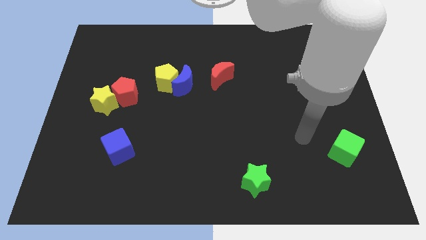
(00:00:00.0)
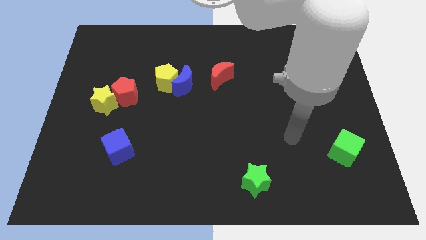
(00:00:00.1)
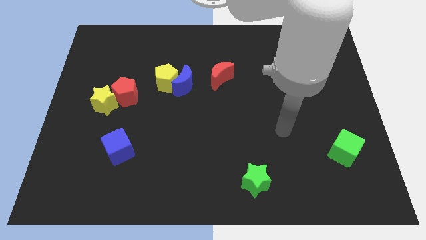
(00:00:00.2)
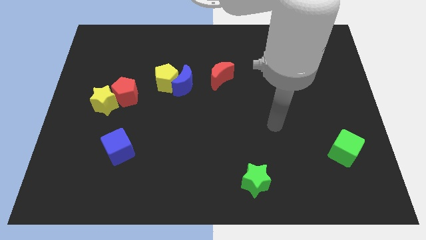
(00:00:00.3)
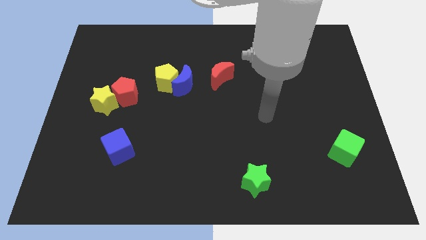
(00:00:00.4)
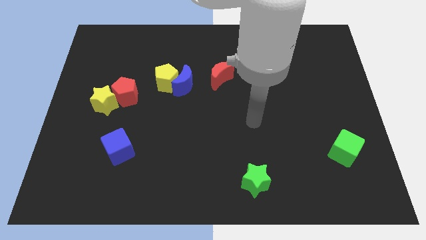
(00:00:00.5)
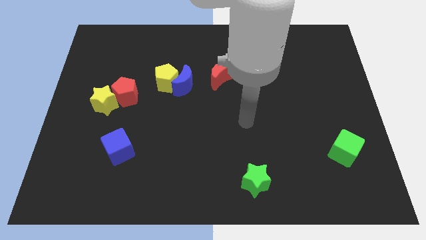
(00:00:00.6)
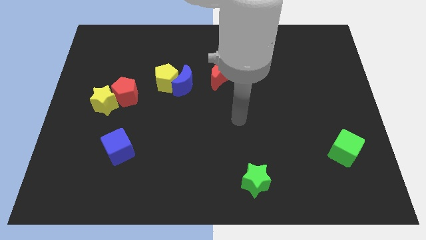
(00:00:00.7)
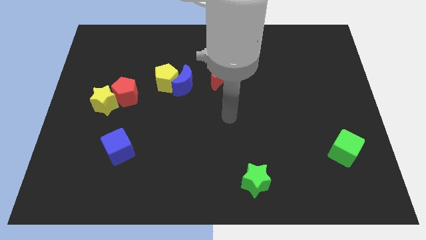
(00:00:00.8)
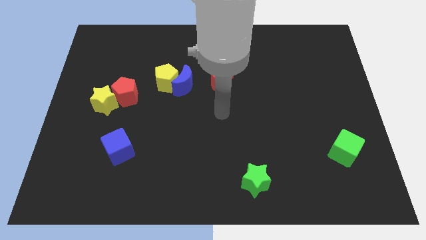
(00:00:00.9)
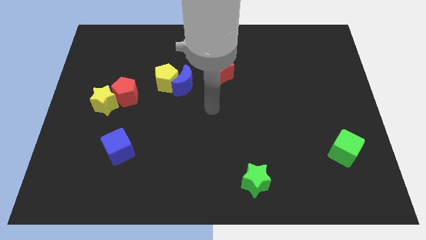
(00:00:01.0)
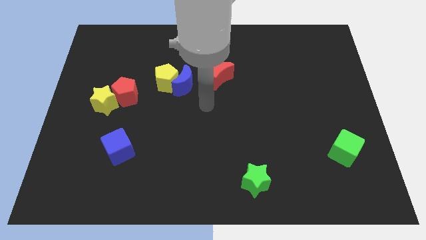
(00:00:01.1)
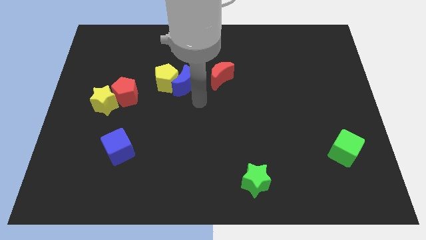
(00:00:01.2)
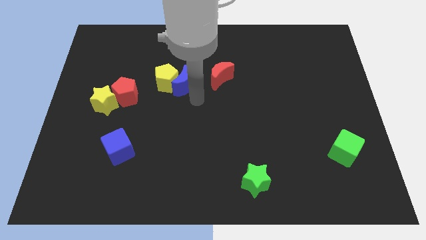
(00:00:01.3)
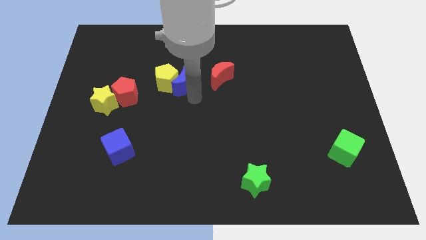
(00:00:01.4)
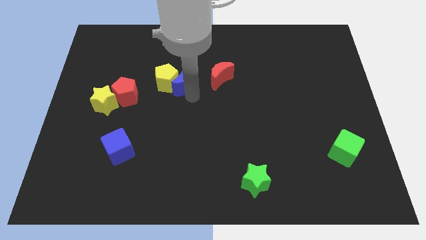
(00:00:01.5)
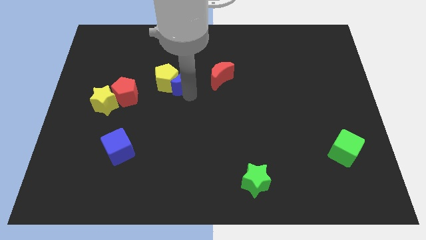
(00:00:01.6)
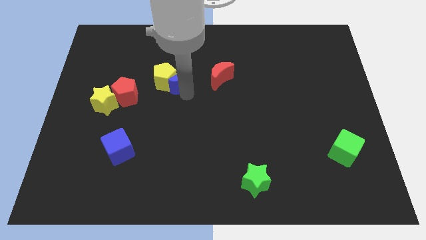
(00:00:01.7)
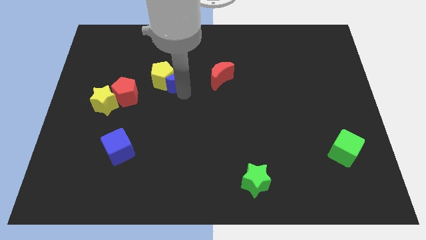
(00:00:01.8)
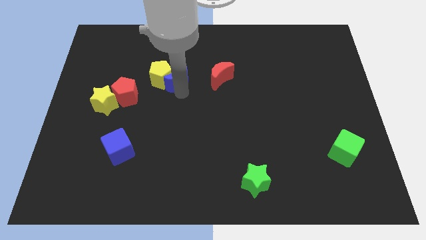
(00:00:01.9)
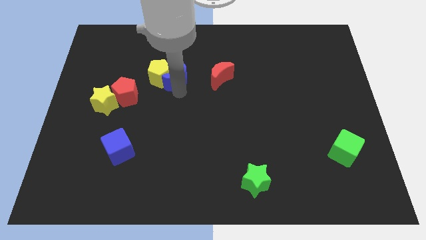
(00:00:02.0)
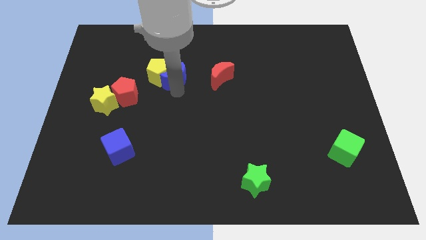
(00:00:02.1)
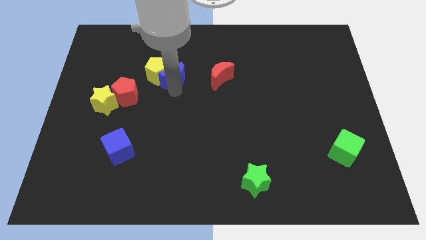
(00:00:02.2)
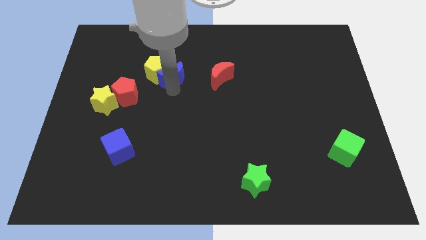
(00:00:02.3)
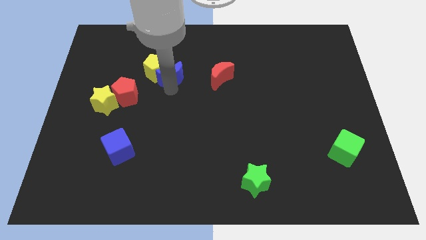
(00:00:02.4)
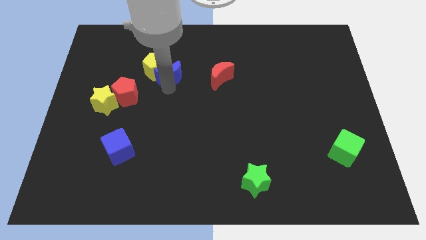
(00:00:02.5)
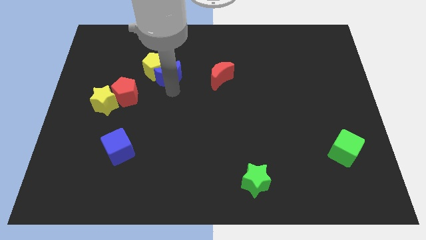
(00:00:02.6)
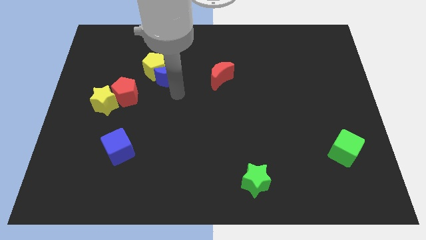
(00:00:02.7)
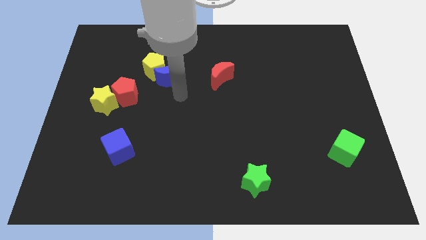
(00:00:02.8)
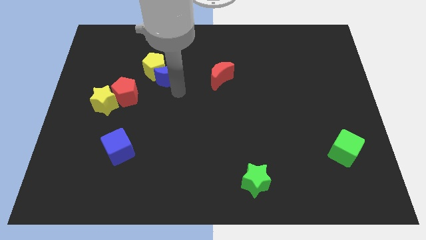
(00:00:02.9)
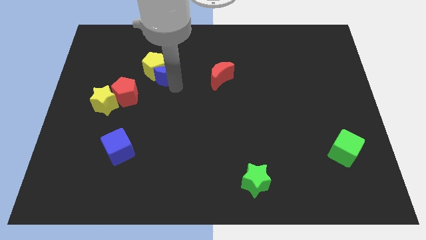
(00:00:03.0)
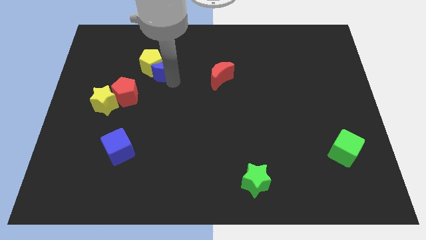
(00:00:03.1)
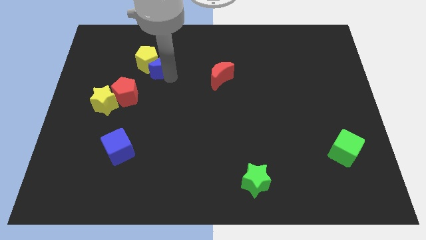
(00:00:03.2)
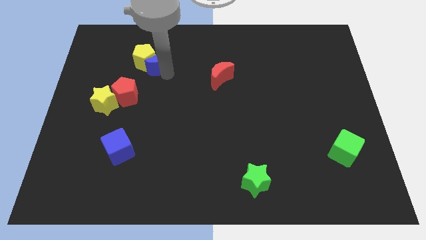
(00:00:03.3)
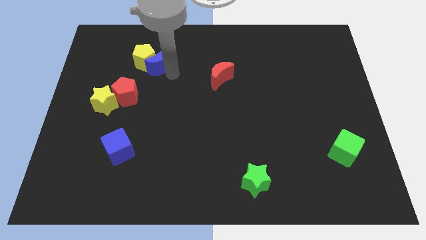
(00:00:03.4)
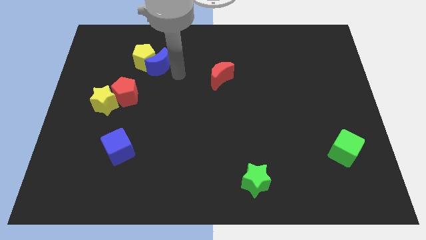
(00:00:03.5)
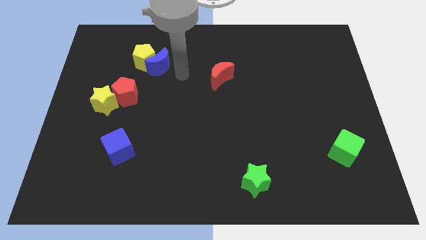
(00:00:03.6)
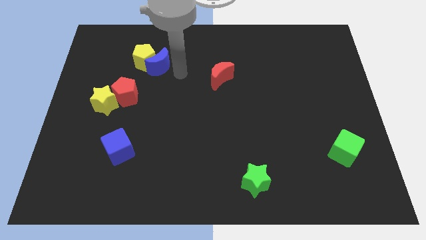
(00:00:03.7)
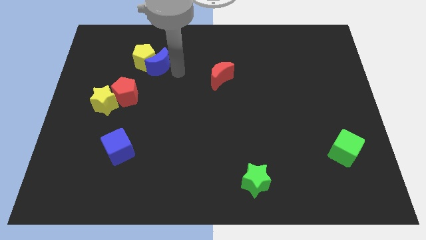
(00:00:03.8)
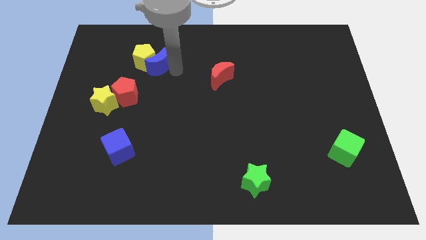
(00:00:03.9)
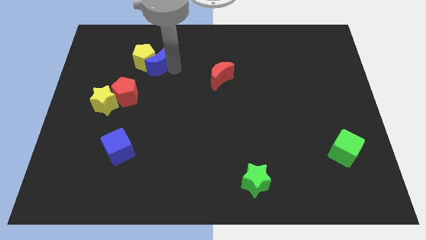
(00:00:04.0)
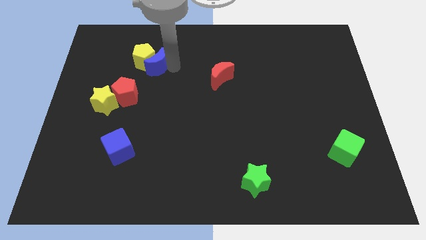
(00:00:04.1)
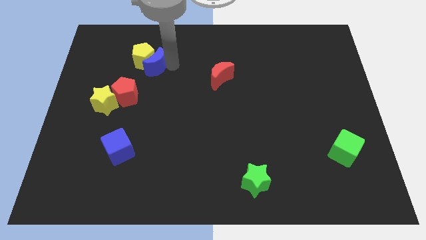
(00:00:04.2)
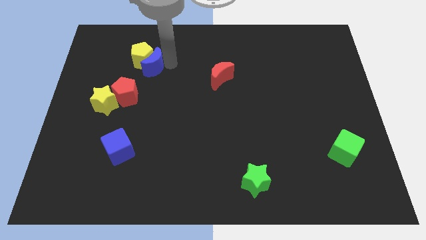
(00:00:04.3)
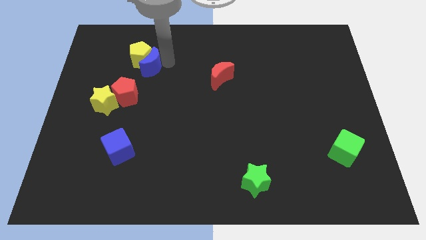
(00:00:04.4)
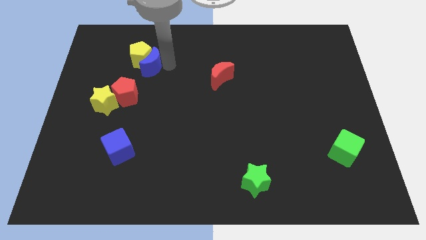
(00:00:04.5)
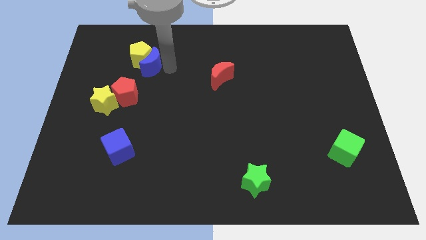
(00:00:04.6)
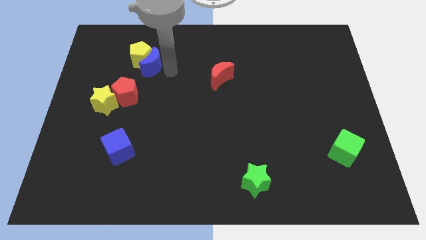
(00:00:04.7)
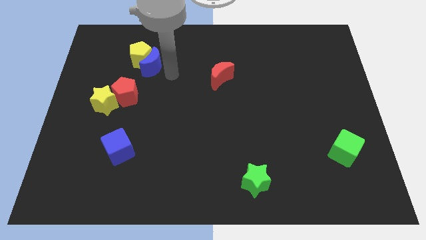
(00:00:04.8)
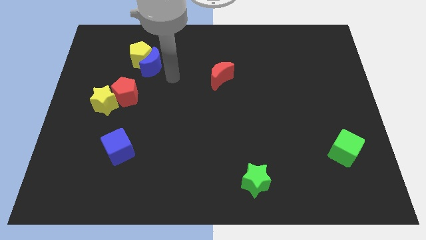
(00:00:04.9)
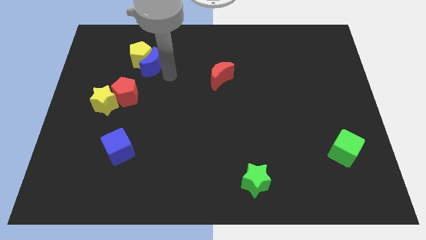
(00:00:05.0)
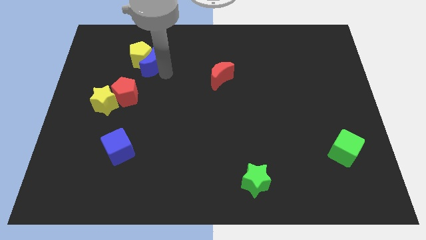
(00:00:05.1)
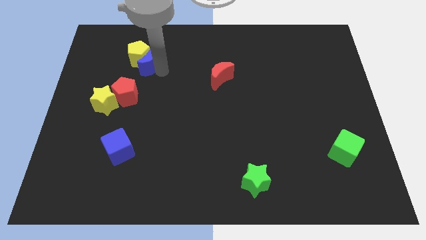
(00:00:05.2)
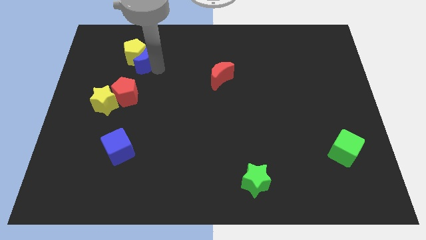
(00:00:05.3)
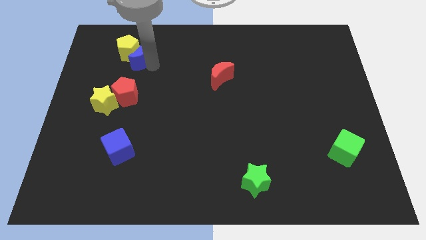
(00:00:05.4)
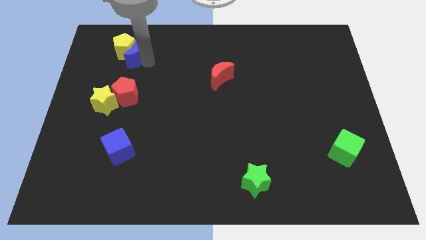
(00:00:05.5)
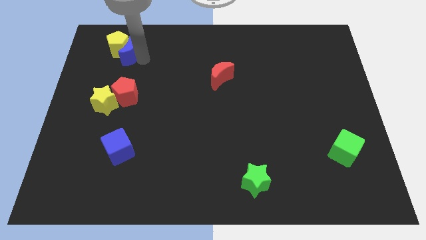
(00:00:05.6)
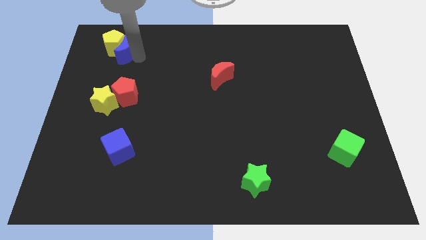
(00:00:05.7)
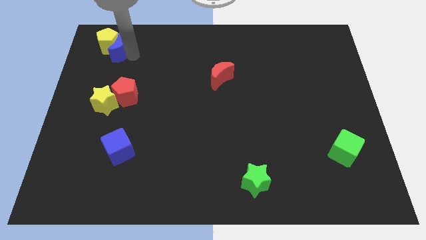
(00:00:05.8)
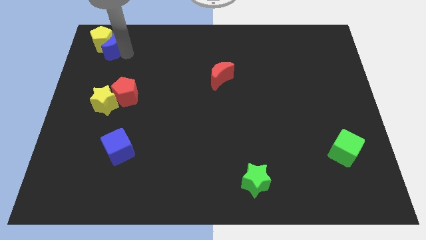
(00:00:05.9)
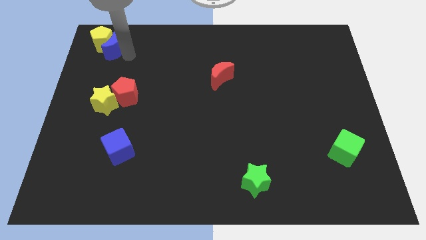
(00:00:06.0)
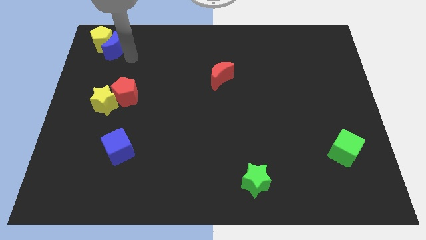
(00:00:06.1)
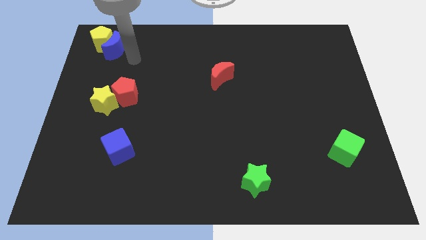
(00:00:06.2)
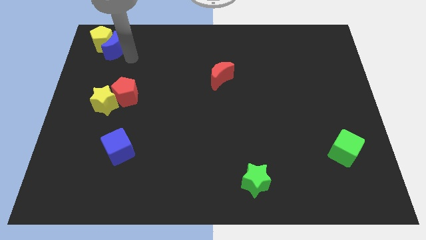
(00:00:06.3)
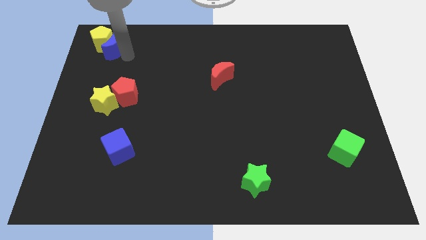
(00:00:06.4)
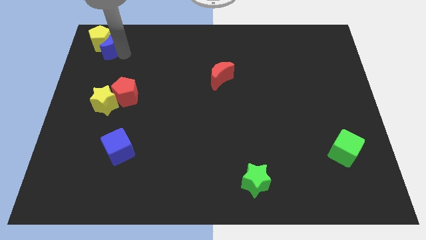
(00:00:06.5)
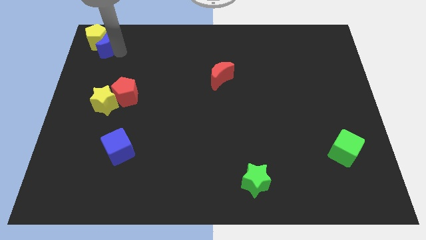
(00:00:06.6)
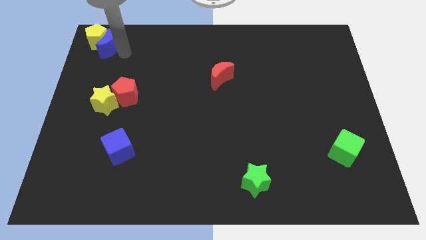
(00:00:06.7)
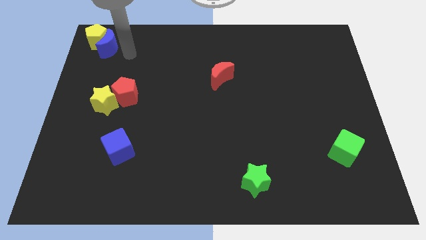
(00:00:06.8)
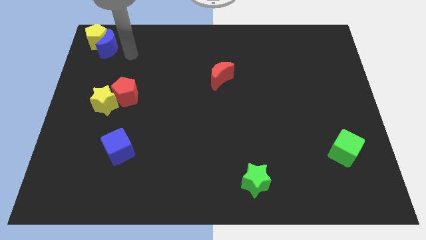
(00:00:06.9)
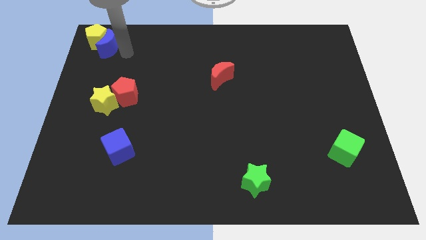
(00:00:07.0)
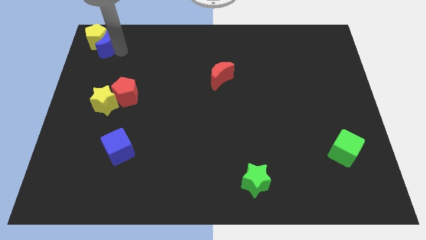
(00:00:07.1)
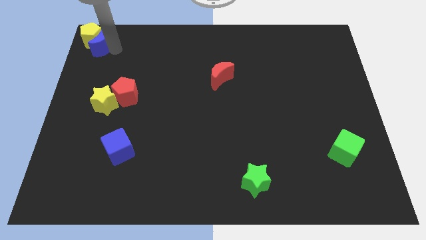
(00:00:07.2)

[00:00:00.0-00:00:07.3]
move the blue moon to the upper left corner

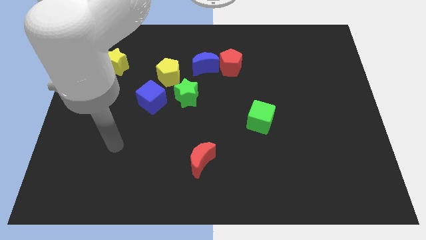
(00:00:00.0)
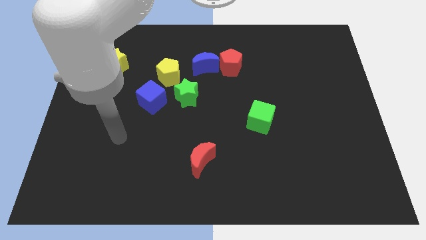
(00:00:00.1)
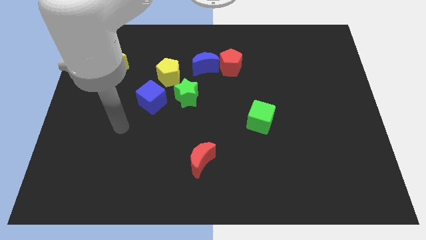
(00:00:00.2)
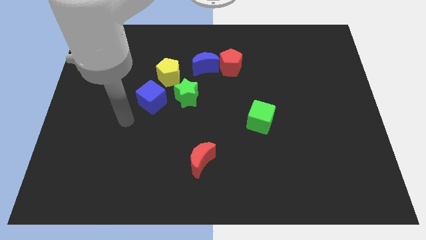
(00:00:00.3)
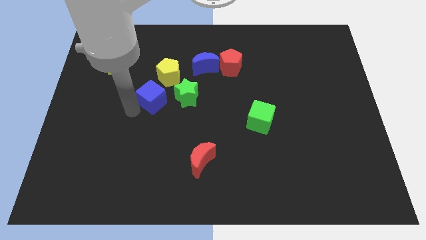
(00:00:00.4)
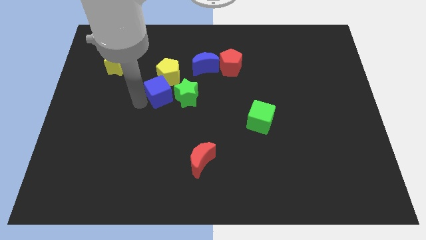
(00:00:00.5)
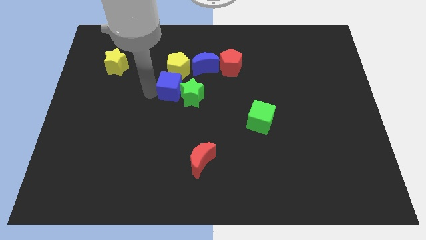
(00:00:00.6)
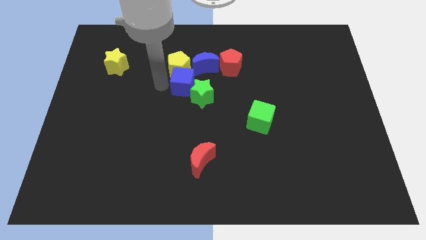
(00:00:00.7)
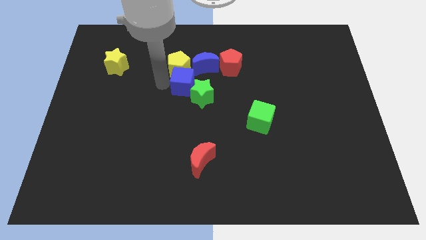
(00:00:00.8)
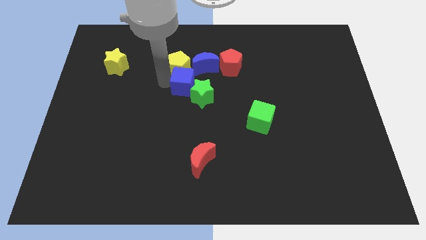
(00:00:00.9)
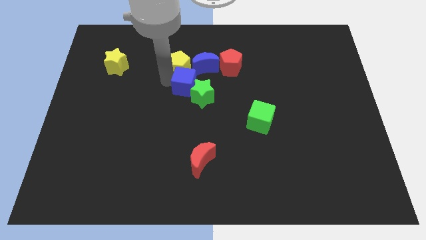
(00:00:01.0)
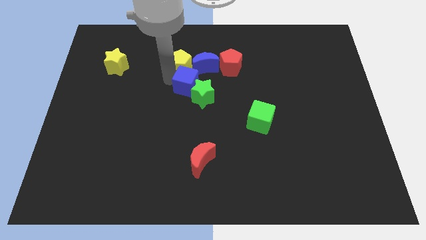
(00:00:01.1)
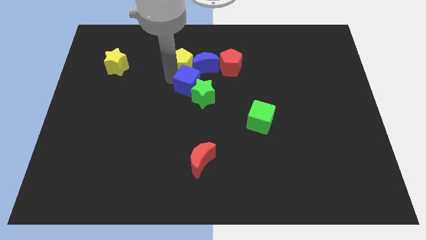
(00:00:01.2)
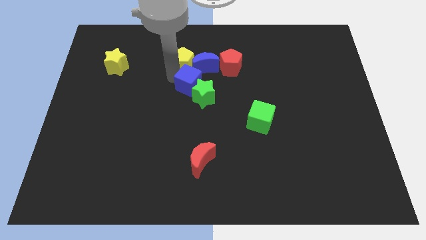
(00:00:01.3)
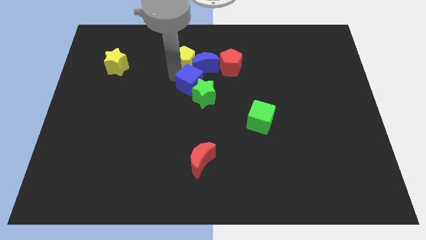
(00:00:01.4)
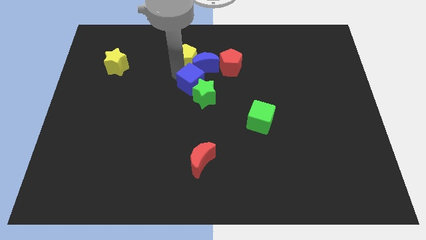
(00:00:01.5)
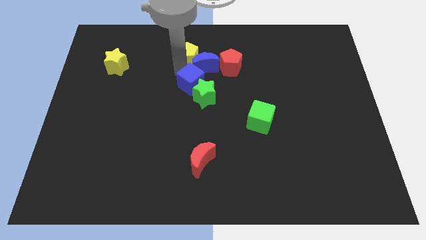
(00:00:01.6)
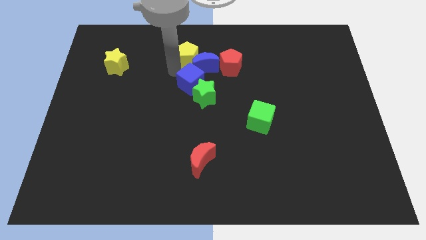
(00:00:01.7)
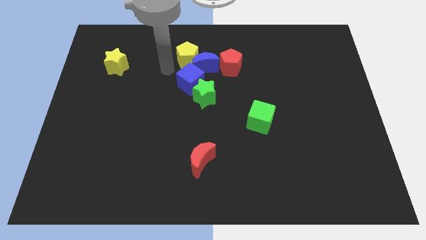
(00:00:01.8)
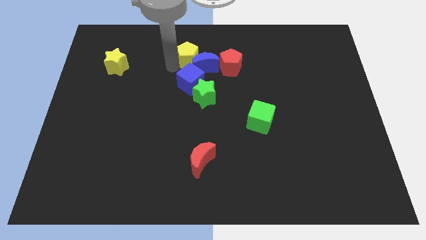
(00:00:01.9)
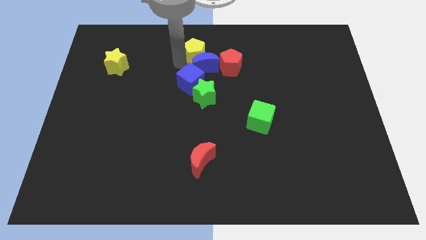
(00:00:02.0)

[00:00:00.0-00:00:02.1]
move the yellow pentagon to the top side
